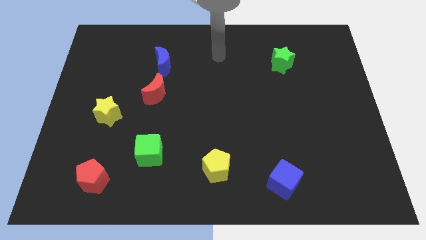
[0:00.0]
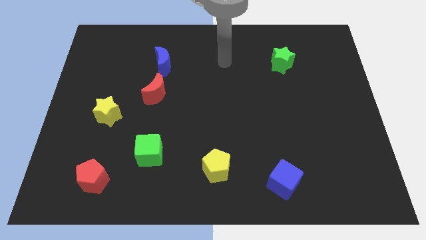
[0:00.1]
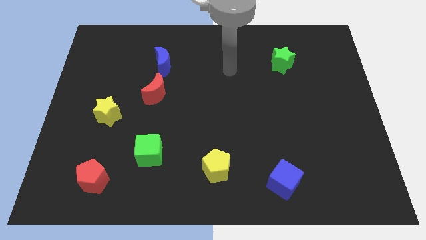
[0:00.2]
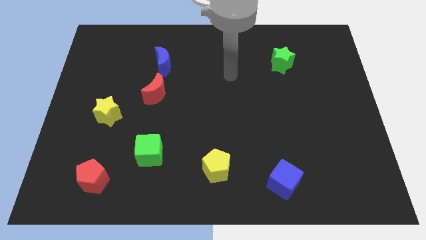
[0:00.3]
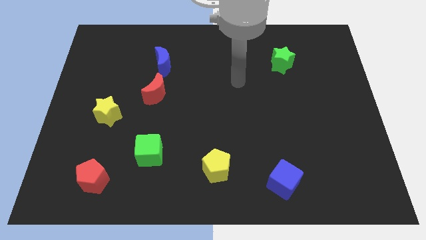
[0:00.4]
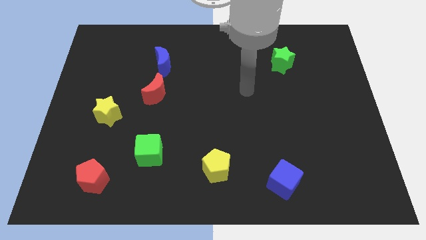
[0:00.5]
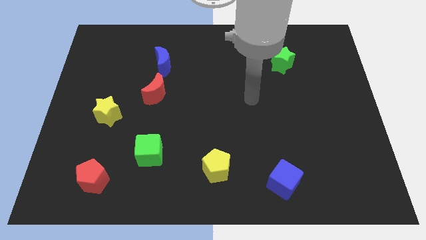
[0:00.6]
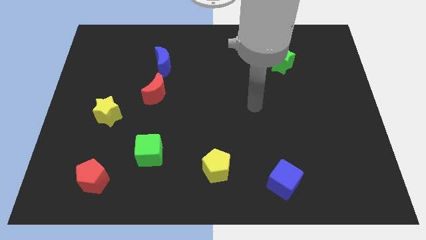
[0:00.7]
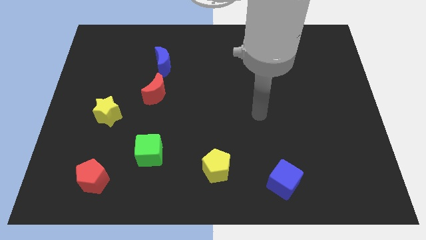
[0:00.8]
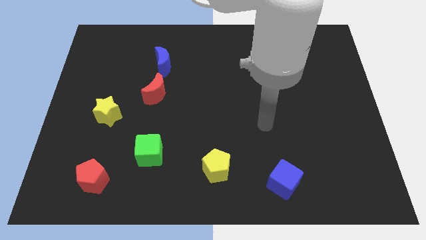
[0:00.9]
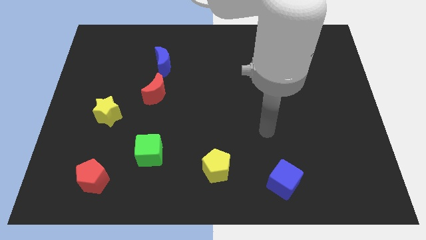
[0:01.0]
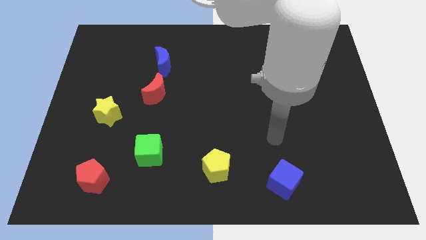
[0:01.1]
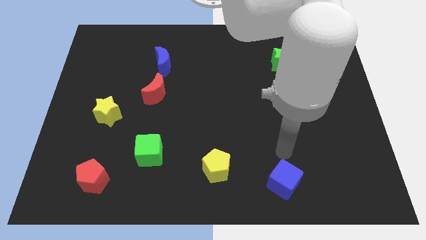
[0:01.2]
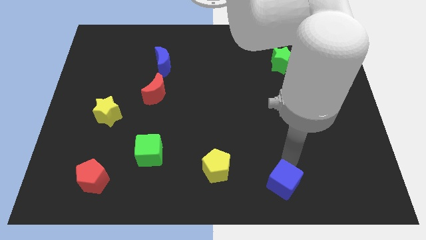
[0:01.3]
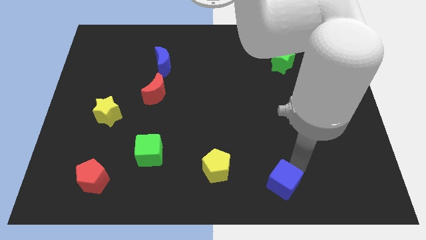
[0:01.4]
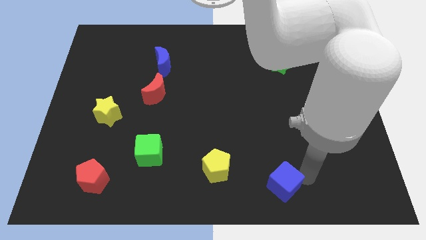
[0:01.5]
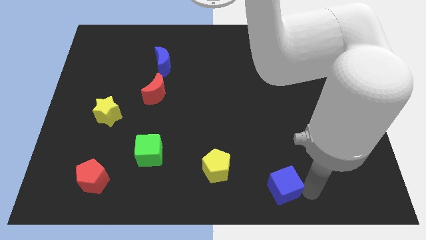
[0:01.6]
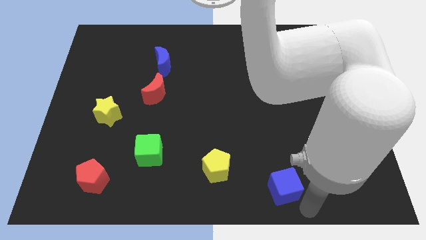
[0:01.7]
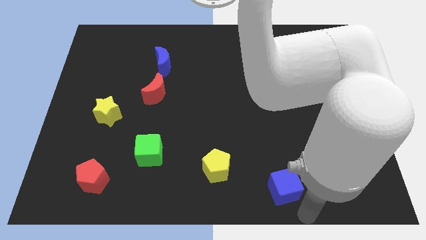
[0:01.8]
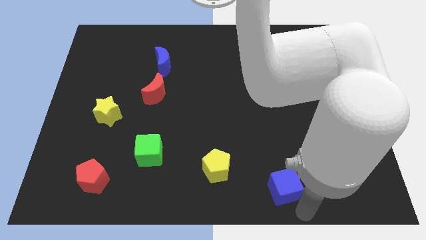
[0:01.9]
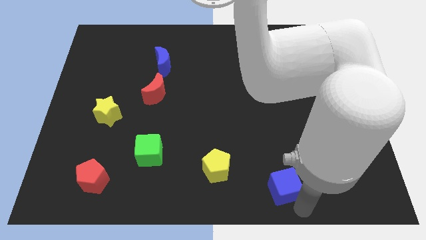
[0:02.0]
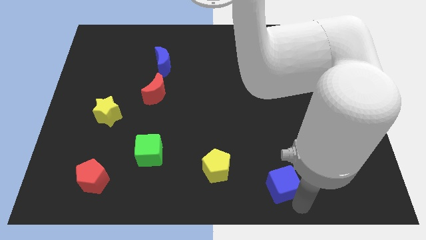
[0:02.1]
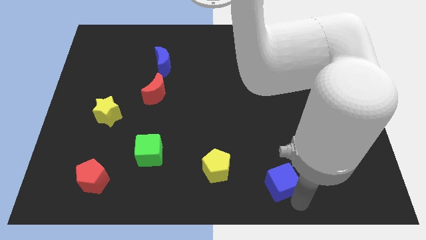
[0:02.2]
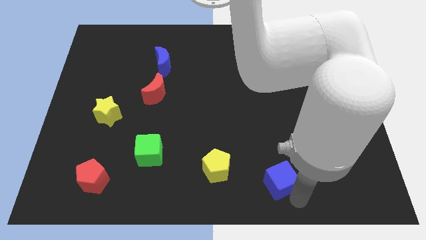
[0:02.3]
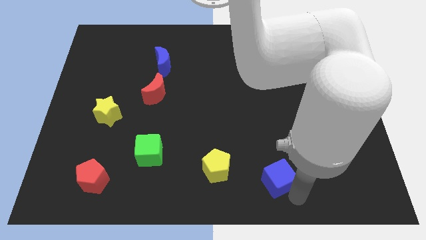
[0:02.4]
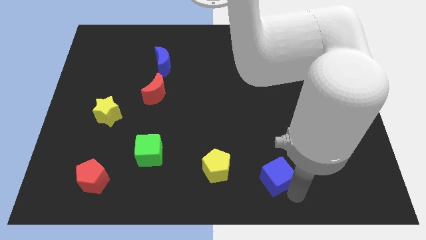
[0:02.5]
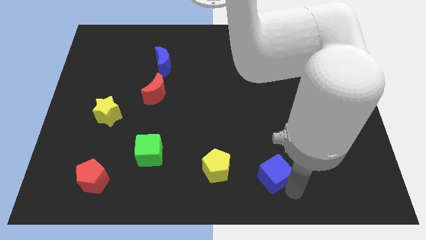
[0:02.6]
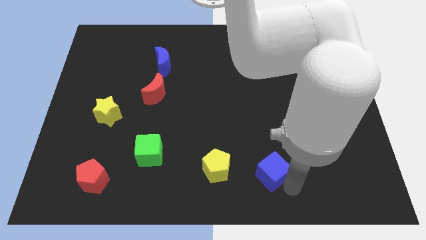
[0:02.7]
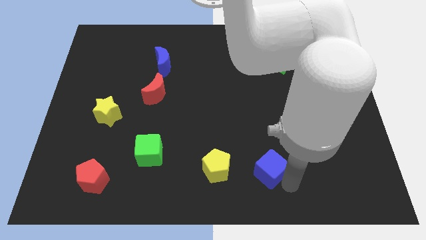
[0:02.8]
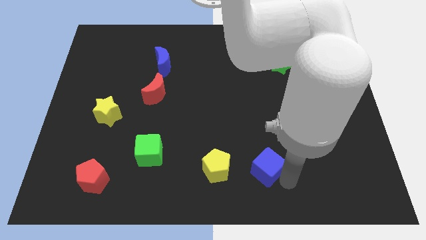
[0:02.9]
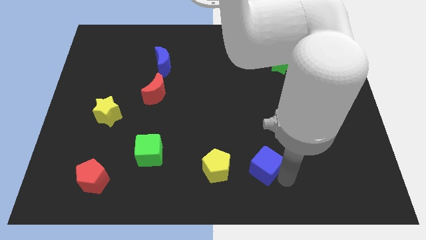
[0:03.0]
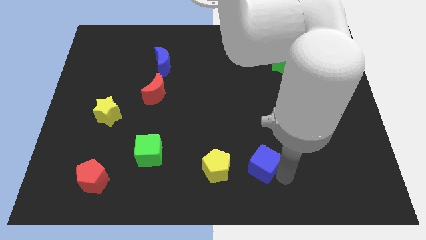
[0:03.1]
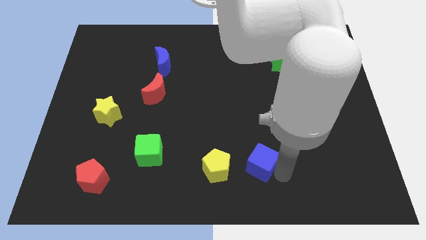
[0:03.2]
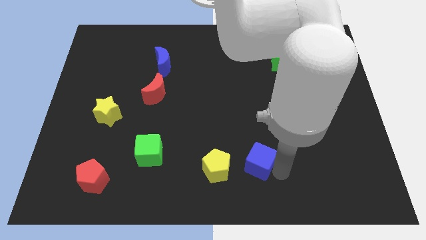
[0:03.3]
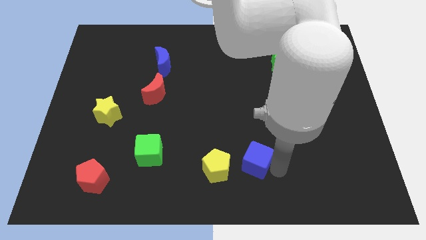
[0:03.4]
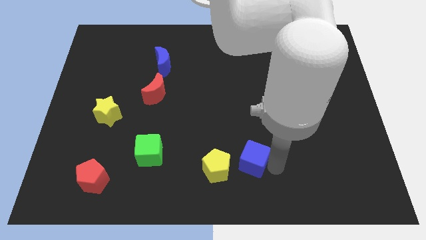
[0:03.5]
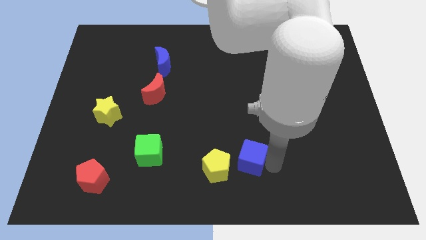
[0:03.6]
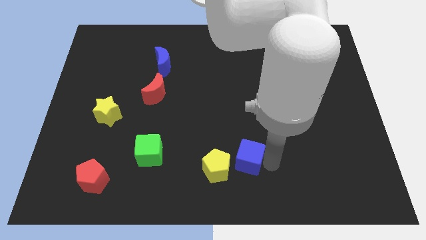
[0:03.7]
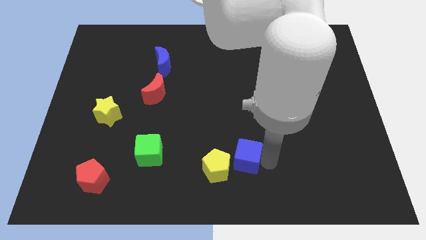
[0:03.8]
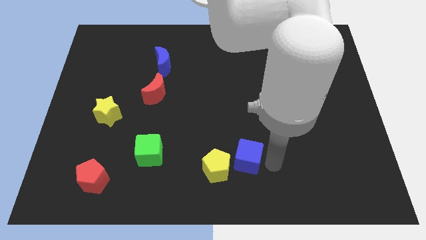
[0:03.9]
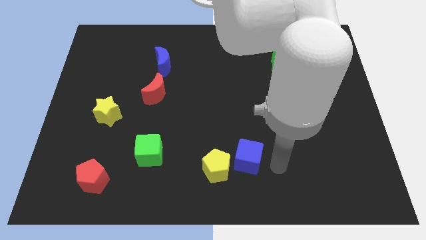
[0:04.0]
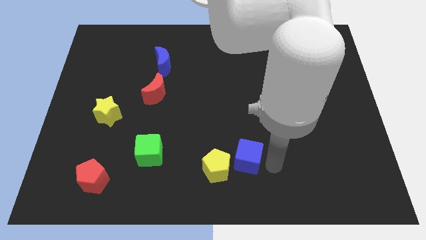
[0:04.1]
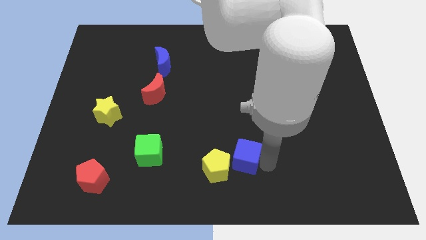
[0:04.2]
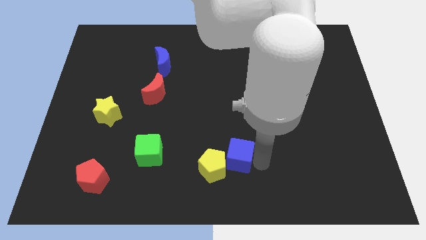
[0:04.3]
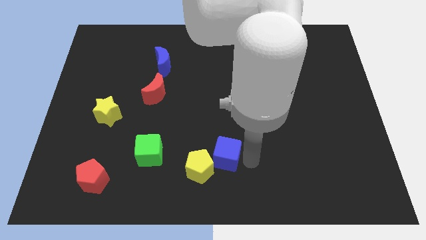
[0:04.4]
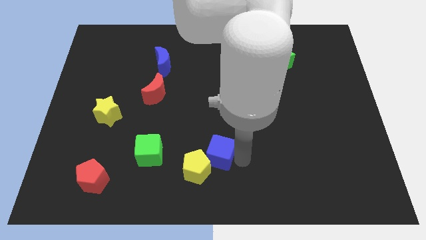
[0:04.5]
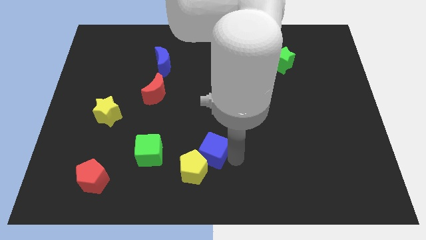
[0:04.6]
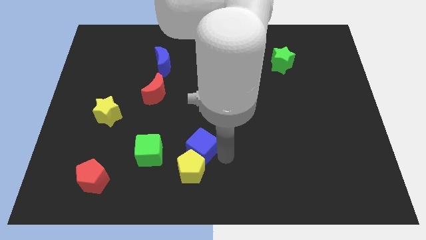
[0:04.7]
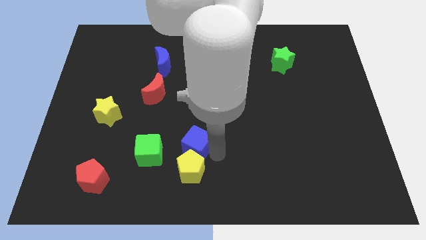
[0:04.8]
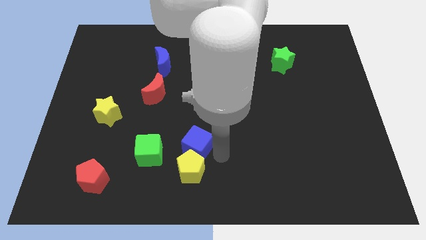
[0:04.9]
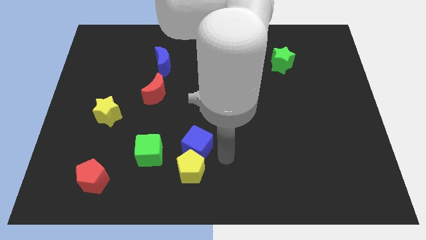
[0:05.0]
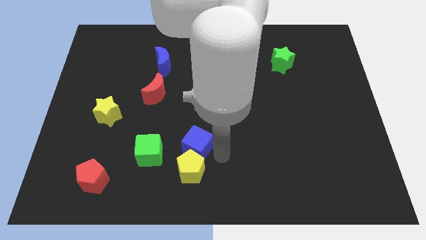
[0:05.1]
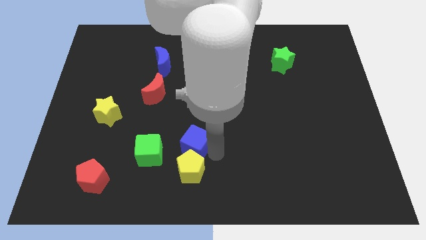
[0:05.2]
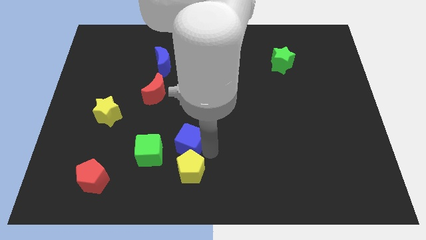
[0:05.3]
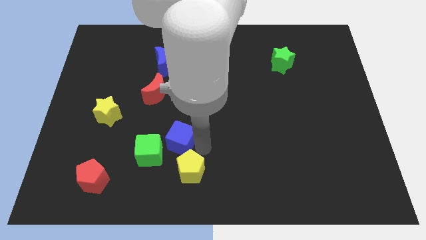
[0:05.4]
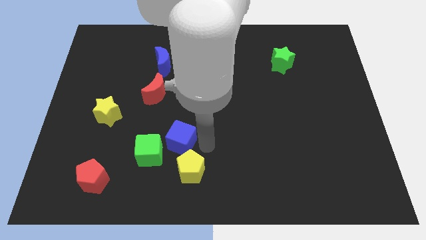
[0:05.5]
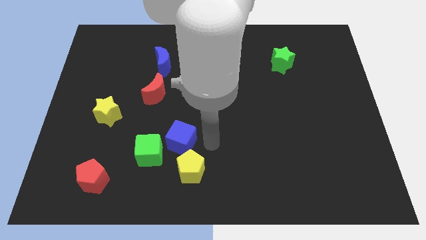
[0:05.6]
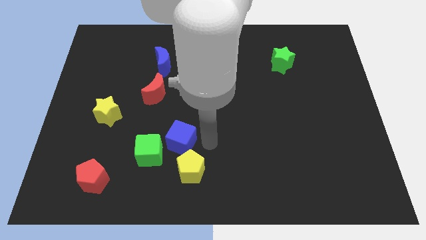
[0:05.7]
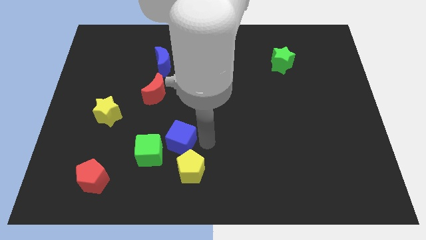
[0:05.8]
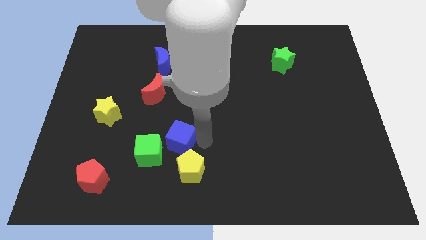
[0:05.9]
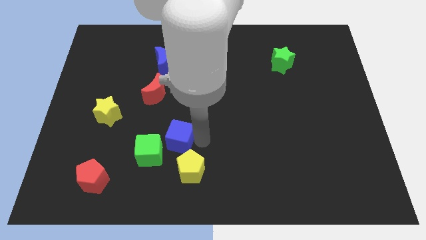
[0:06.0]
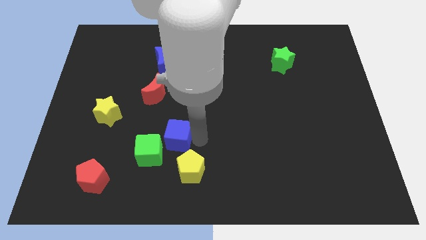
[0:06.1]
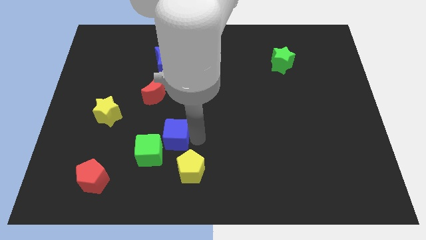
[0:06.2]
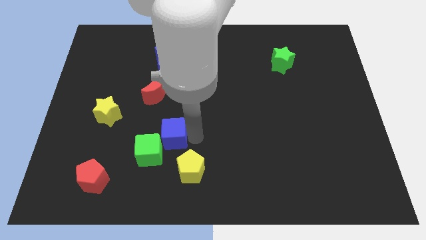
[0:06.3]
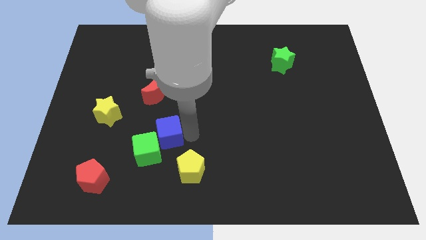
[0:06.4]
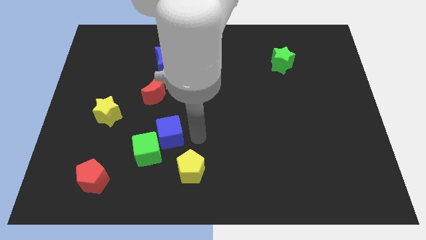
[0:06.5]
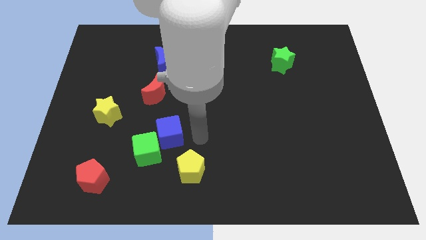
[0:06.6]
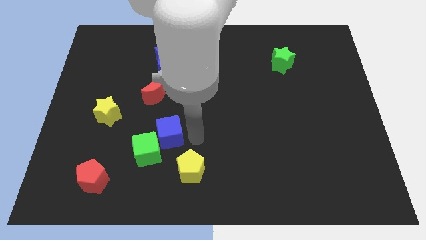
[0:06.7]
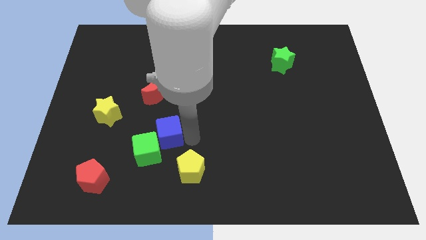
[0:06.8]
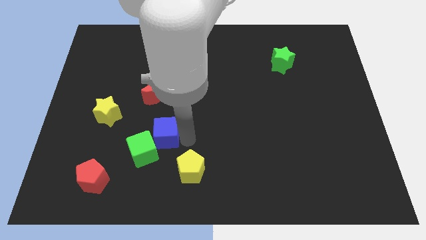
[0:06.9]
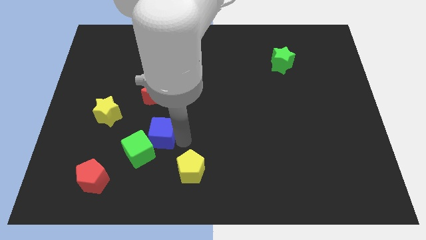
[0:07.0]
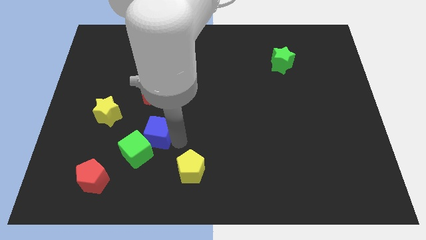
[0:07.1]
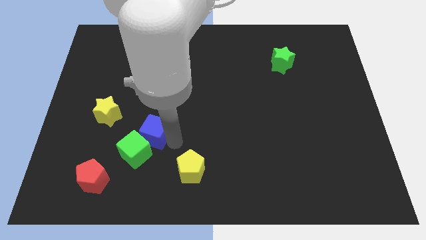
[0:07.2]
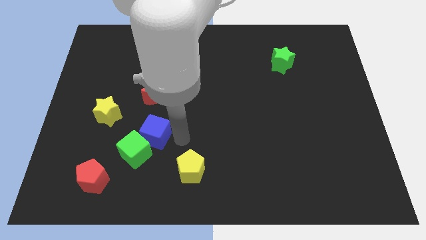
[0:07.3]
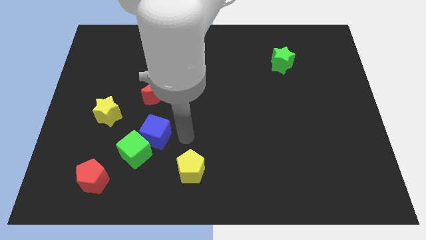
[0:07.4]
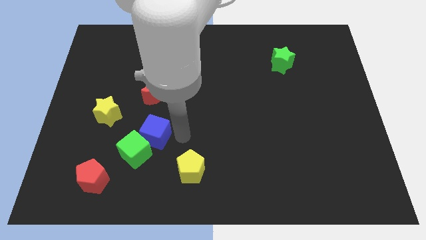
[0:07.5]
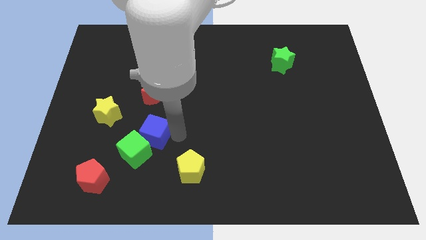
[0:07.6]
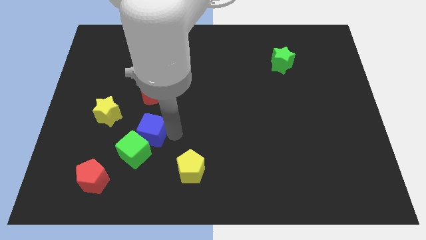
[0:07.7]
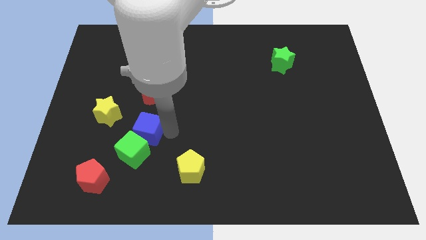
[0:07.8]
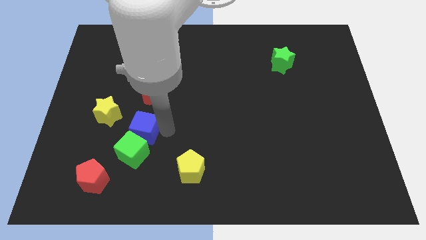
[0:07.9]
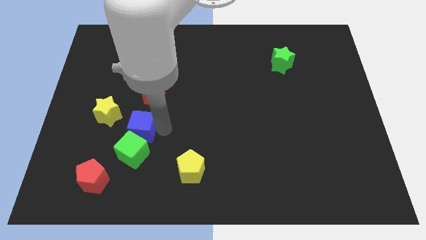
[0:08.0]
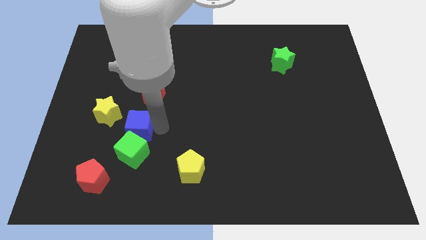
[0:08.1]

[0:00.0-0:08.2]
put the blue cube to the top left of the green cube
